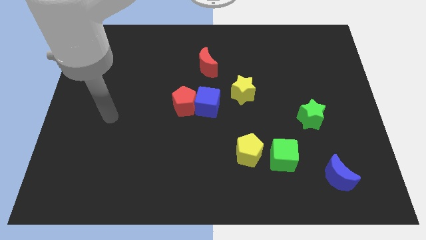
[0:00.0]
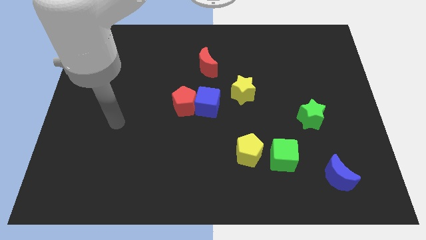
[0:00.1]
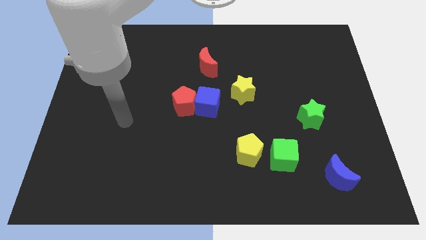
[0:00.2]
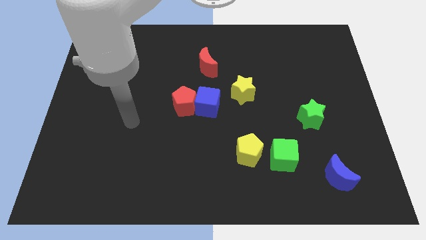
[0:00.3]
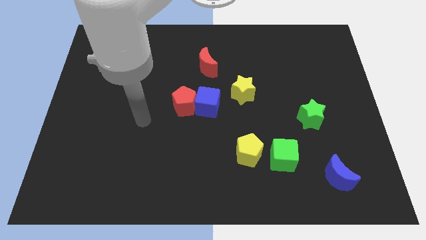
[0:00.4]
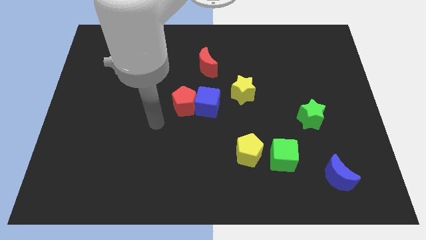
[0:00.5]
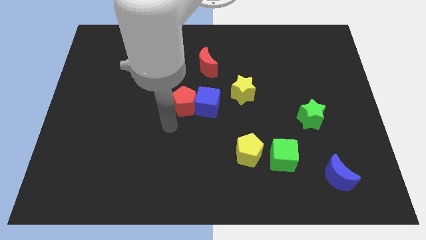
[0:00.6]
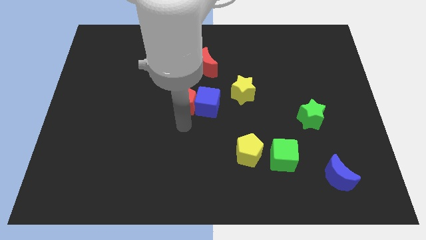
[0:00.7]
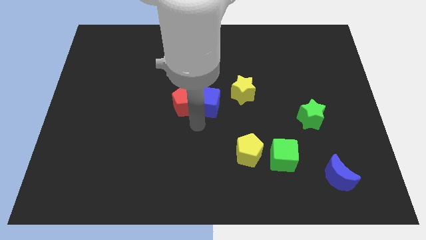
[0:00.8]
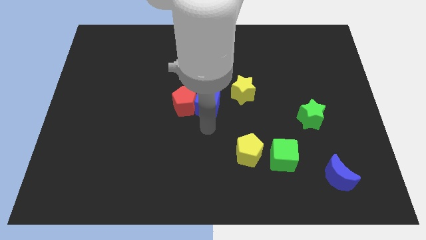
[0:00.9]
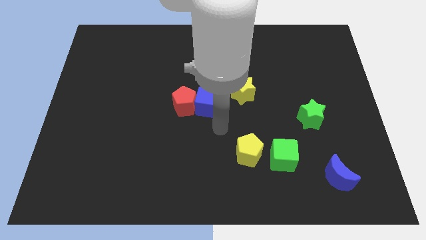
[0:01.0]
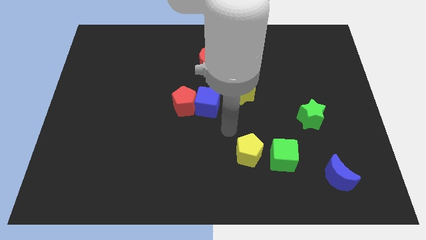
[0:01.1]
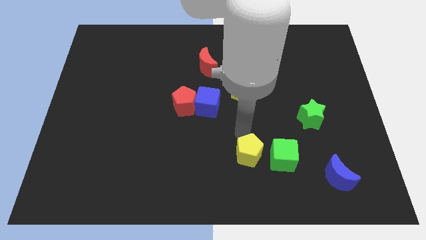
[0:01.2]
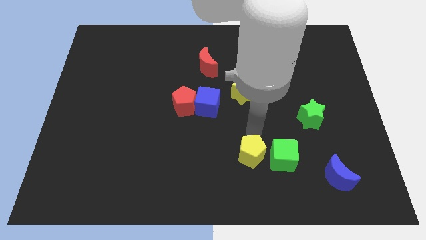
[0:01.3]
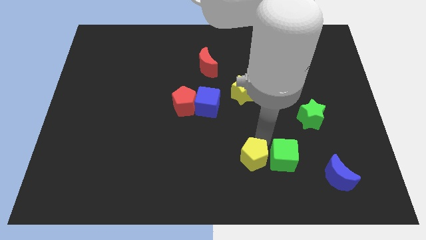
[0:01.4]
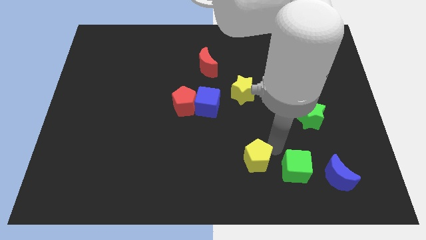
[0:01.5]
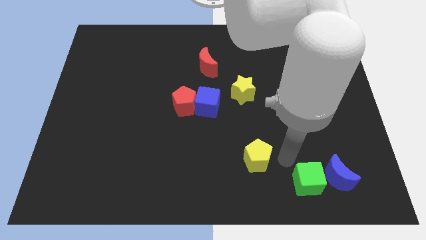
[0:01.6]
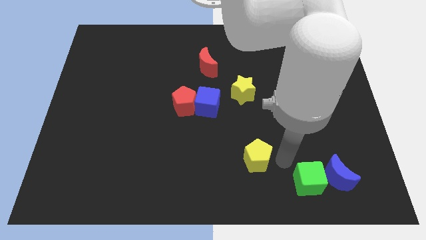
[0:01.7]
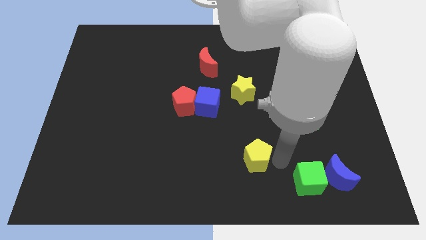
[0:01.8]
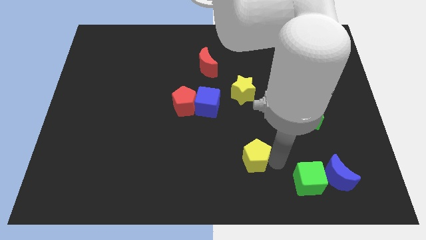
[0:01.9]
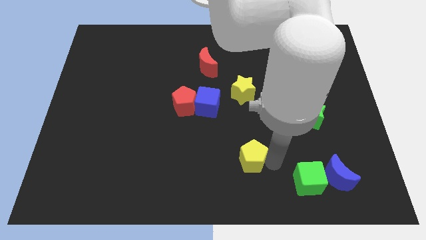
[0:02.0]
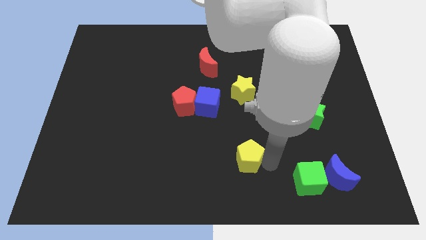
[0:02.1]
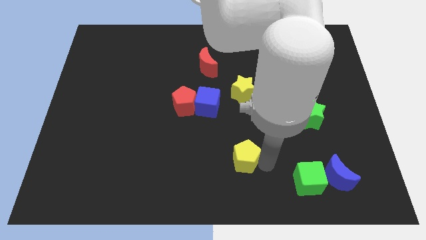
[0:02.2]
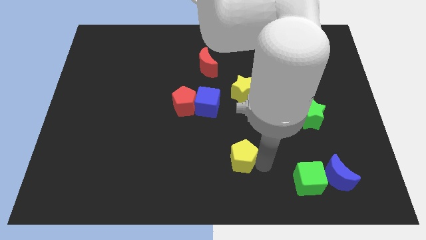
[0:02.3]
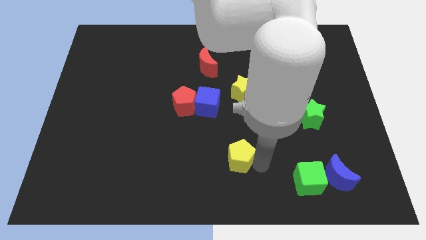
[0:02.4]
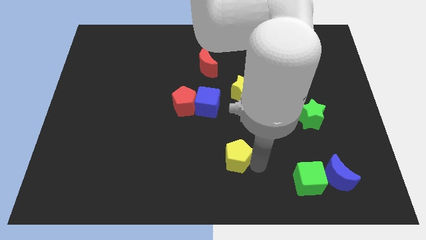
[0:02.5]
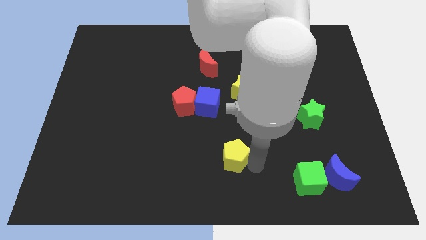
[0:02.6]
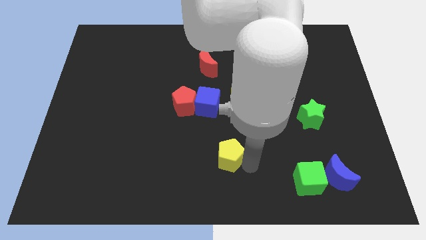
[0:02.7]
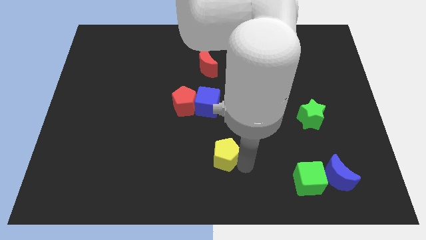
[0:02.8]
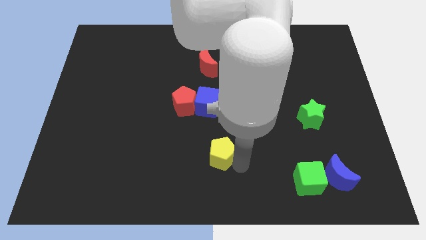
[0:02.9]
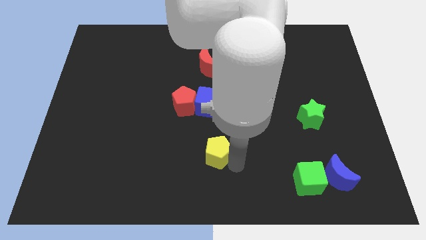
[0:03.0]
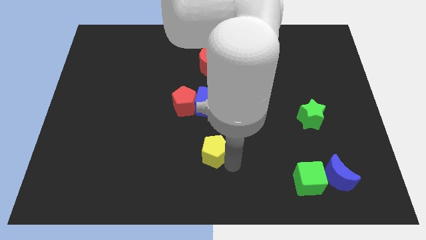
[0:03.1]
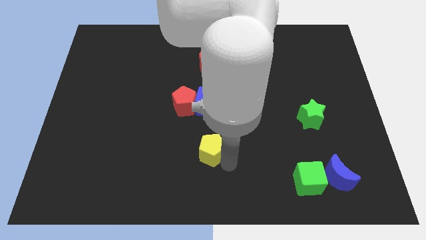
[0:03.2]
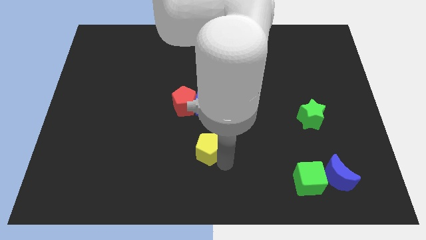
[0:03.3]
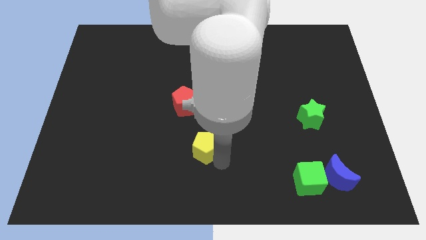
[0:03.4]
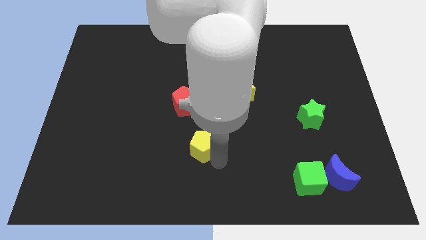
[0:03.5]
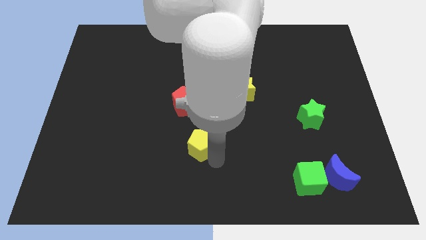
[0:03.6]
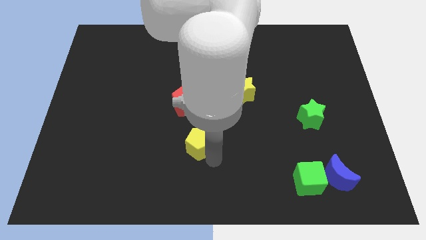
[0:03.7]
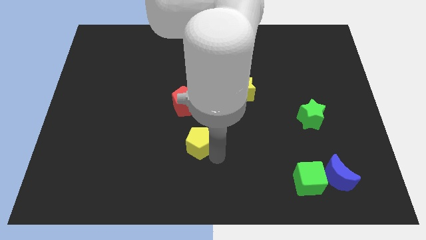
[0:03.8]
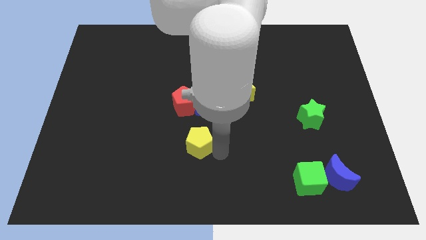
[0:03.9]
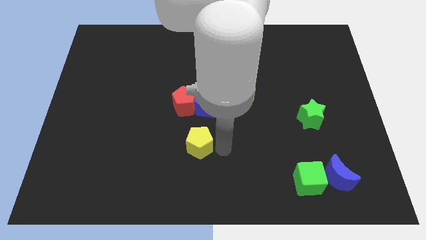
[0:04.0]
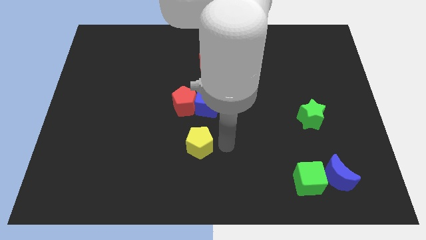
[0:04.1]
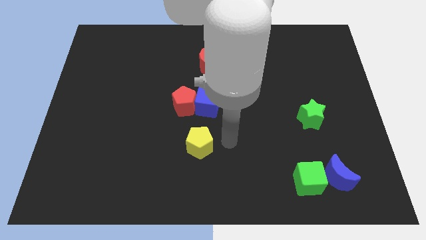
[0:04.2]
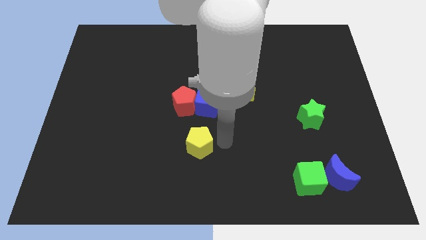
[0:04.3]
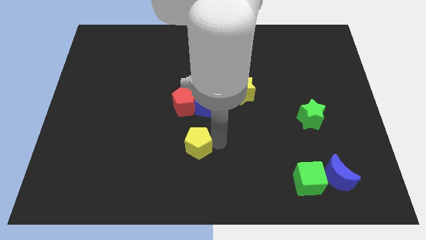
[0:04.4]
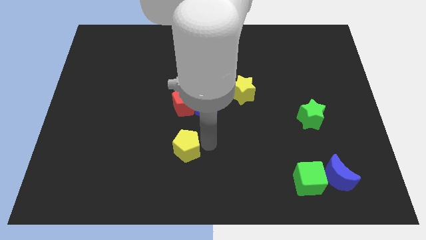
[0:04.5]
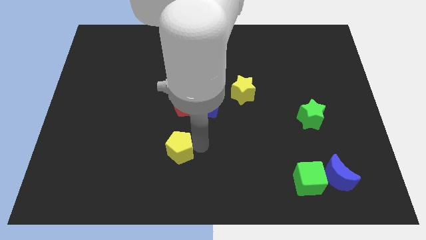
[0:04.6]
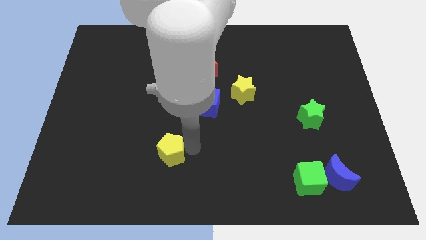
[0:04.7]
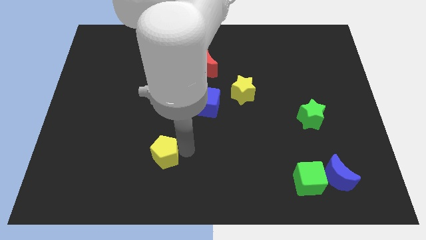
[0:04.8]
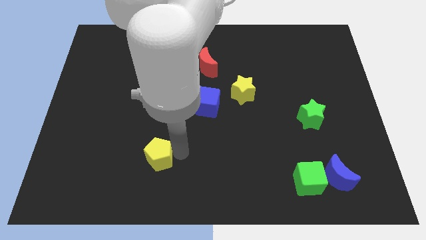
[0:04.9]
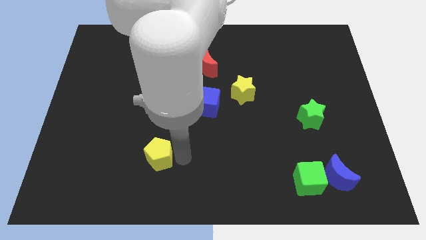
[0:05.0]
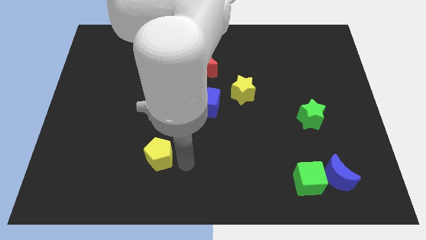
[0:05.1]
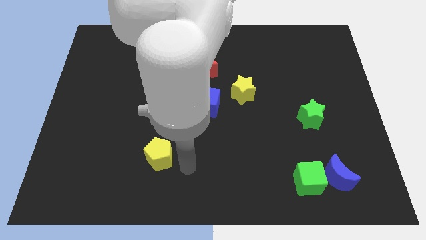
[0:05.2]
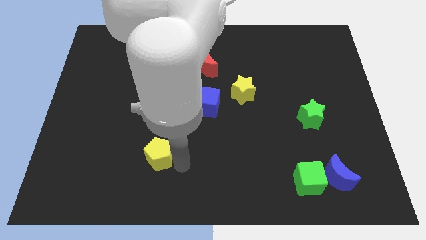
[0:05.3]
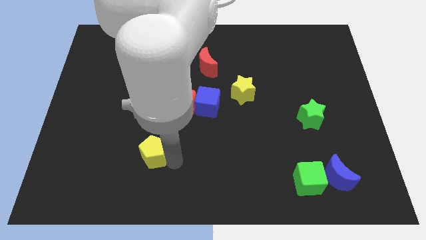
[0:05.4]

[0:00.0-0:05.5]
slide the yellow pentagon to the left

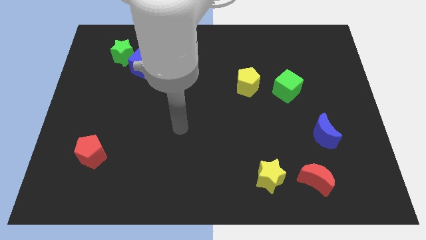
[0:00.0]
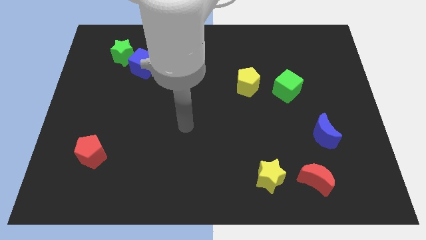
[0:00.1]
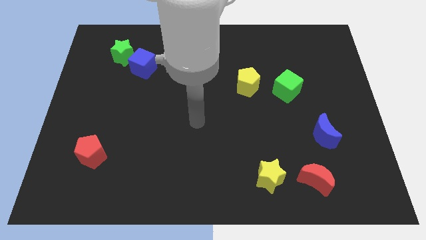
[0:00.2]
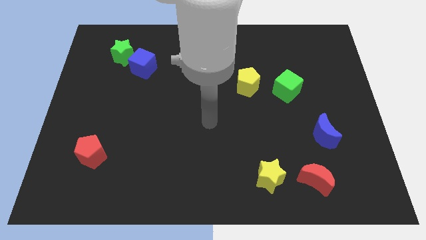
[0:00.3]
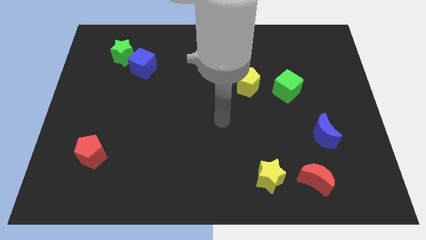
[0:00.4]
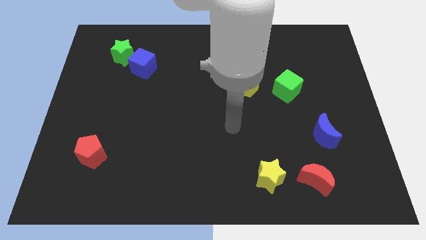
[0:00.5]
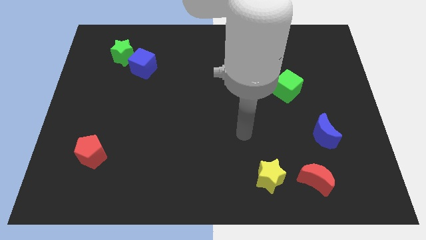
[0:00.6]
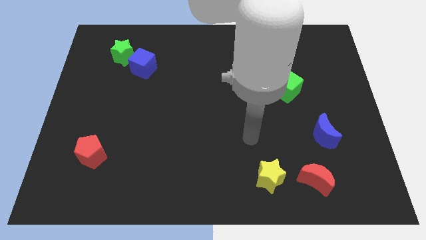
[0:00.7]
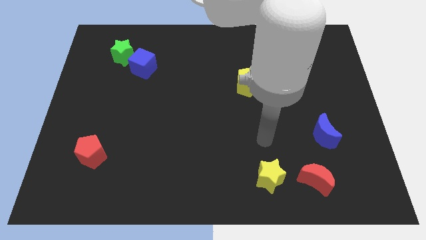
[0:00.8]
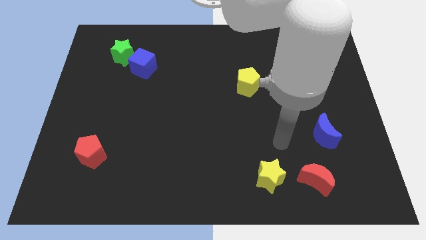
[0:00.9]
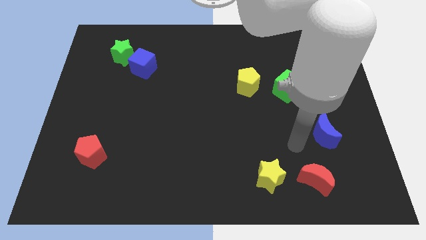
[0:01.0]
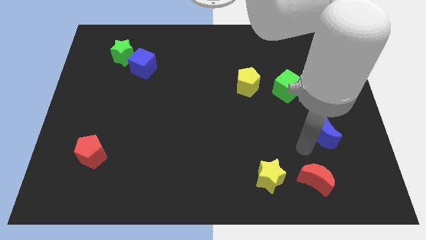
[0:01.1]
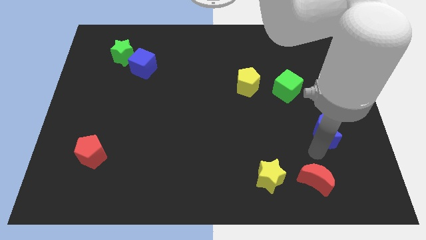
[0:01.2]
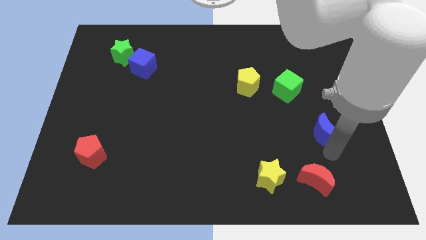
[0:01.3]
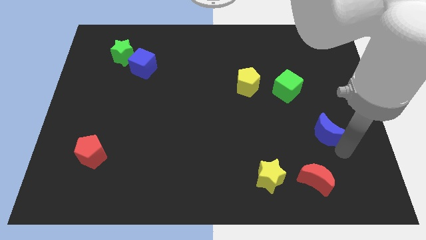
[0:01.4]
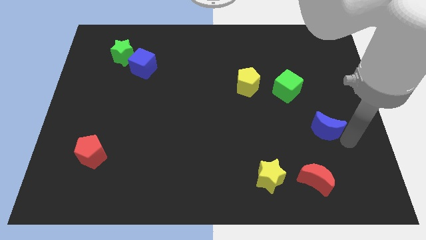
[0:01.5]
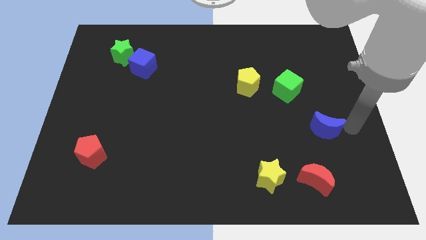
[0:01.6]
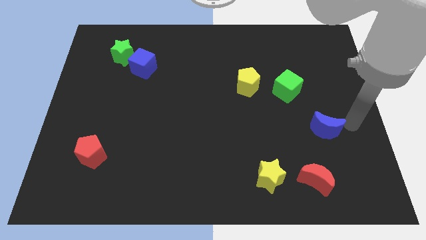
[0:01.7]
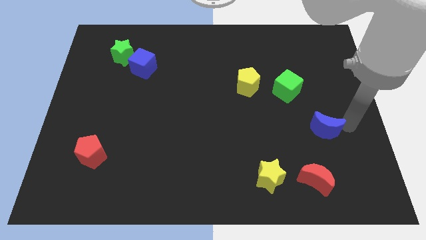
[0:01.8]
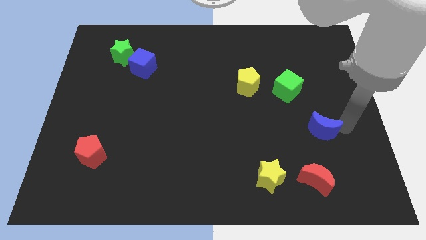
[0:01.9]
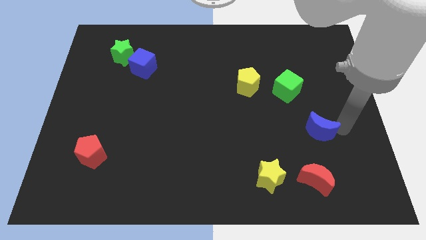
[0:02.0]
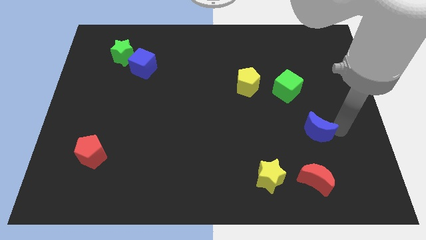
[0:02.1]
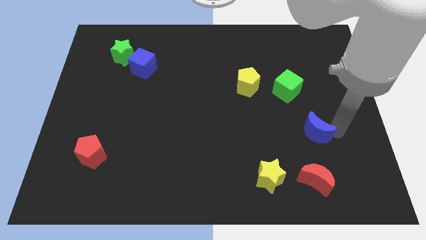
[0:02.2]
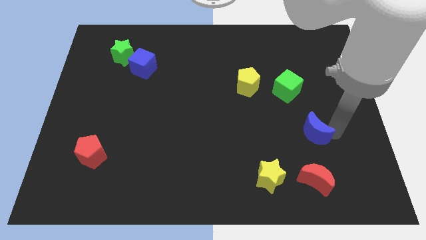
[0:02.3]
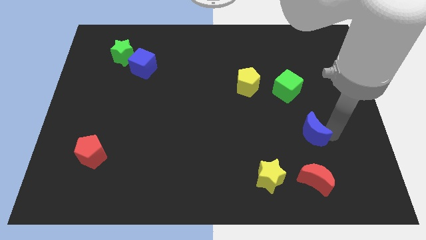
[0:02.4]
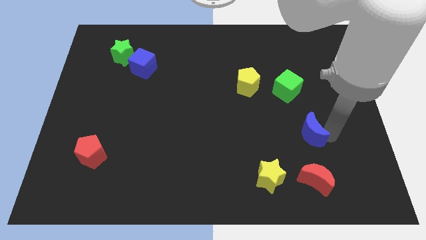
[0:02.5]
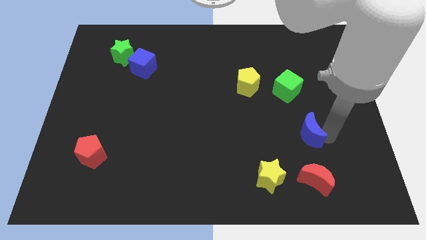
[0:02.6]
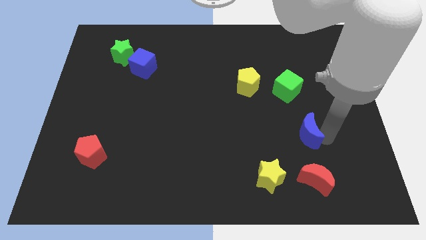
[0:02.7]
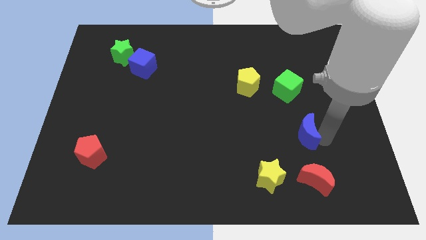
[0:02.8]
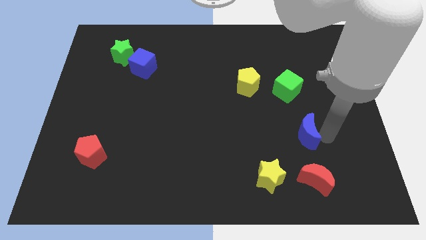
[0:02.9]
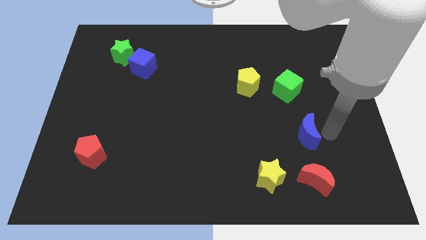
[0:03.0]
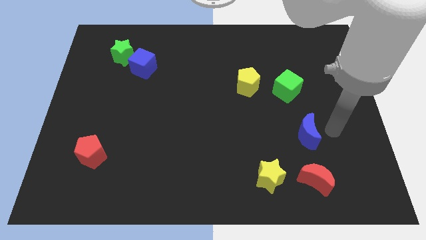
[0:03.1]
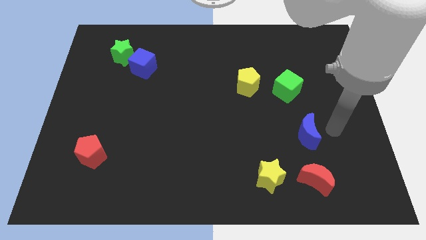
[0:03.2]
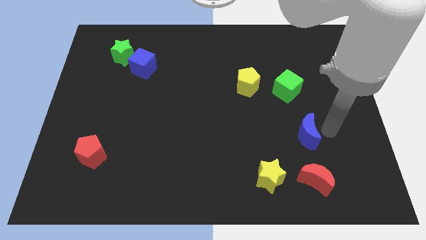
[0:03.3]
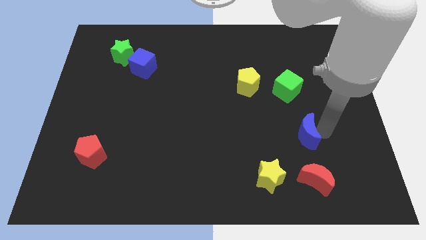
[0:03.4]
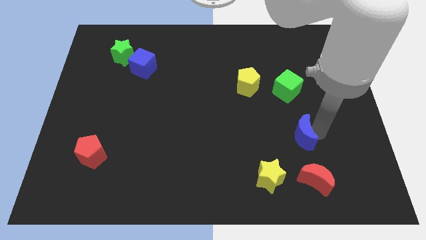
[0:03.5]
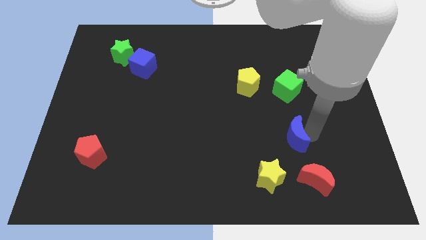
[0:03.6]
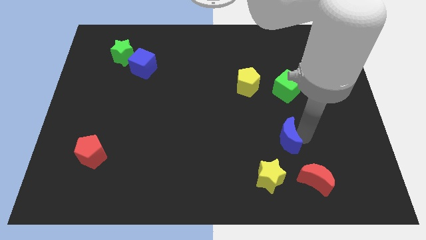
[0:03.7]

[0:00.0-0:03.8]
move the blue moon slightly to the left
